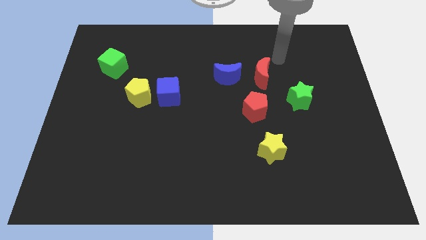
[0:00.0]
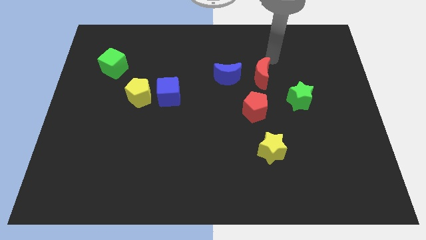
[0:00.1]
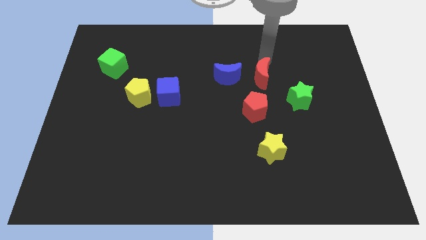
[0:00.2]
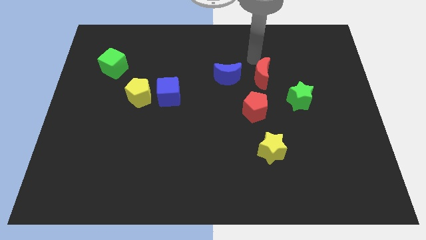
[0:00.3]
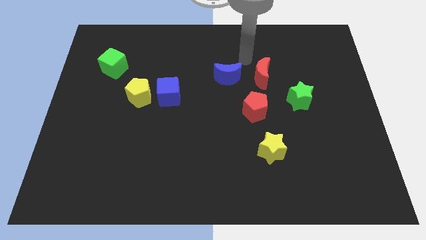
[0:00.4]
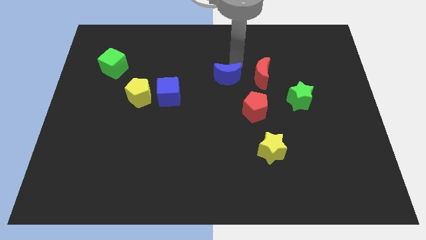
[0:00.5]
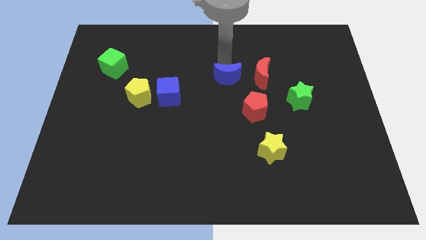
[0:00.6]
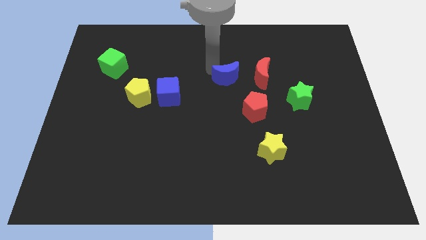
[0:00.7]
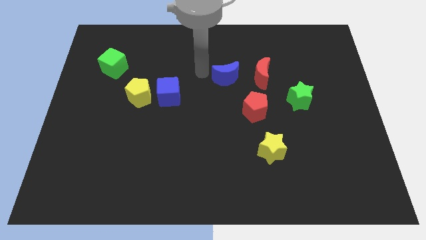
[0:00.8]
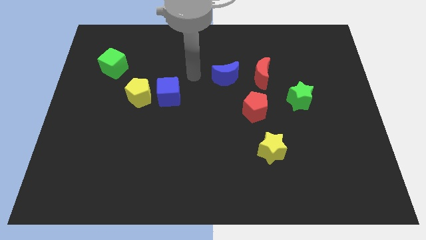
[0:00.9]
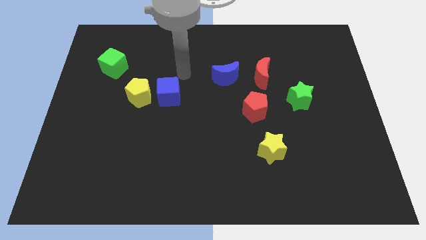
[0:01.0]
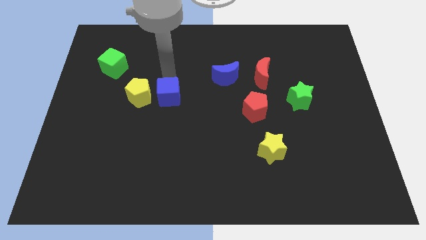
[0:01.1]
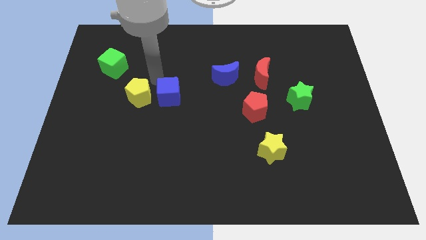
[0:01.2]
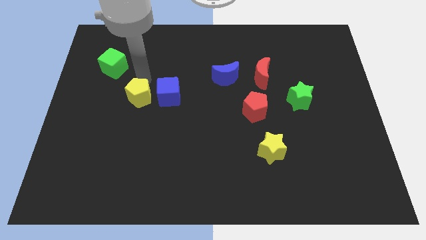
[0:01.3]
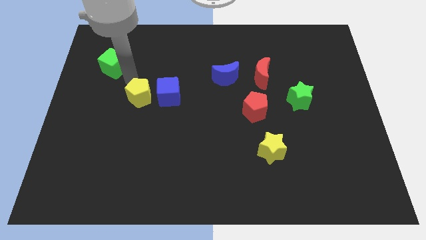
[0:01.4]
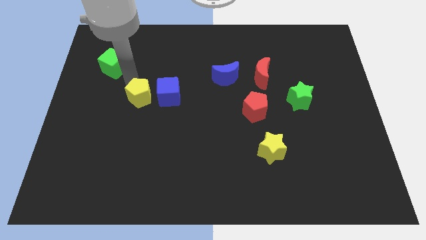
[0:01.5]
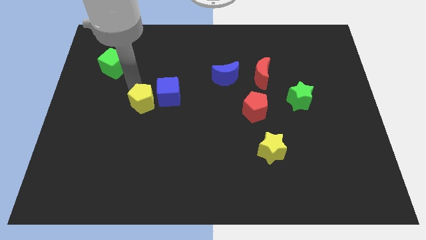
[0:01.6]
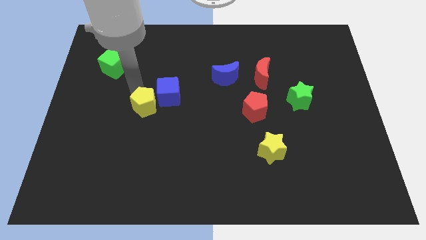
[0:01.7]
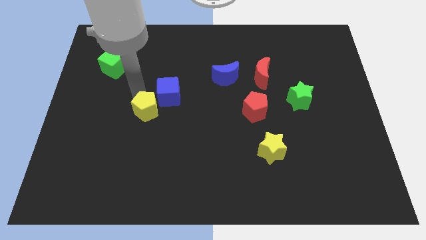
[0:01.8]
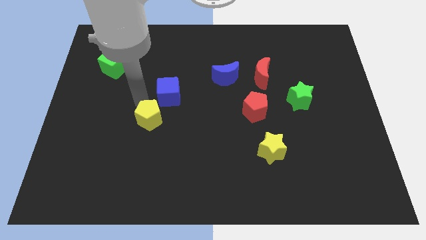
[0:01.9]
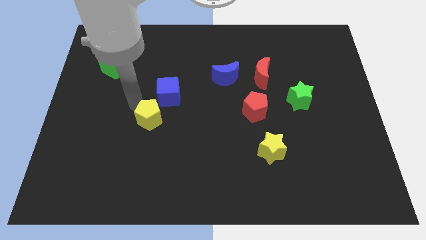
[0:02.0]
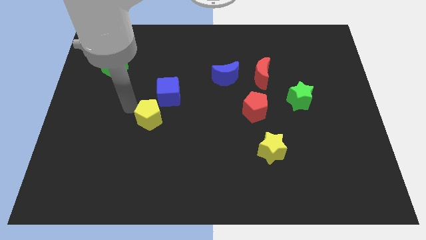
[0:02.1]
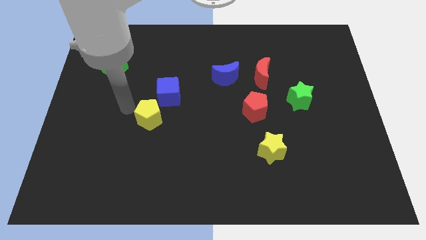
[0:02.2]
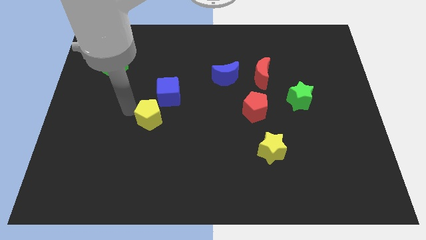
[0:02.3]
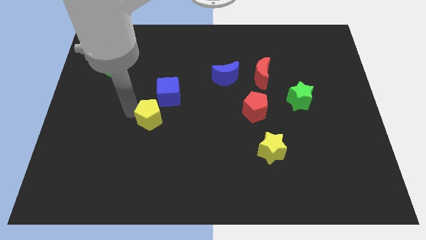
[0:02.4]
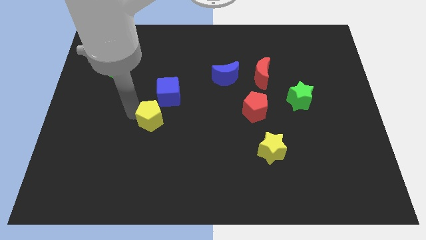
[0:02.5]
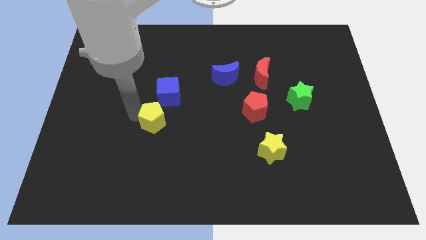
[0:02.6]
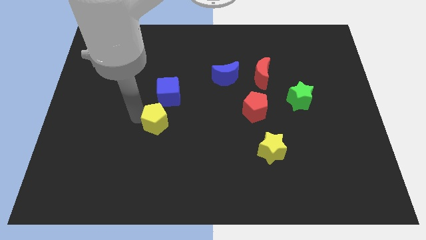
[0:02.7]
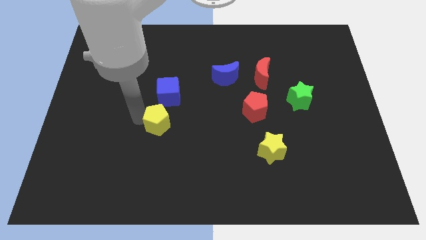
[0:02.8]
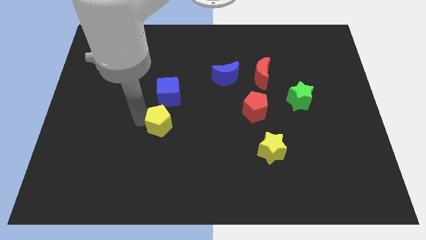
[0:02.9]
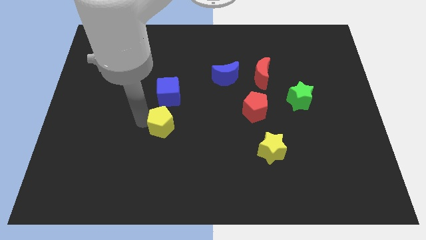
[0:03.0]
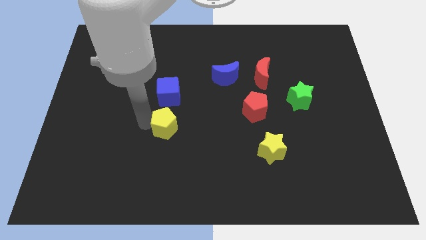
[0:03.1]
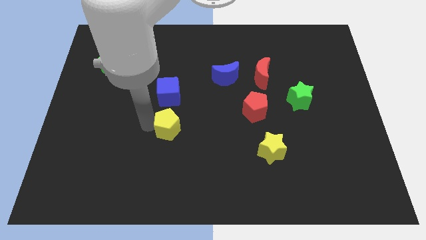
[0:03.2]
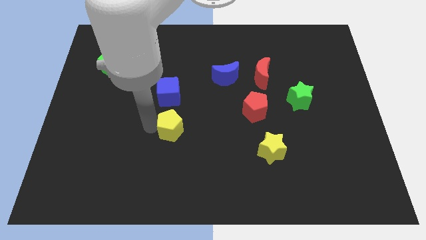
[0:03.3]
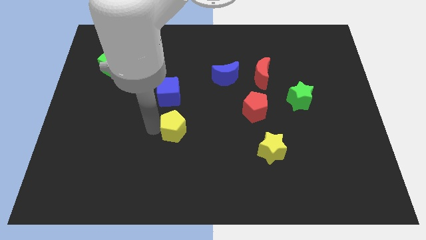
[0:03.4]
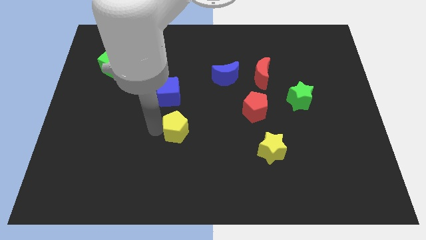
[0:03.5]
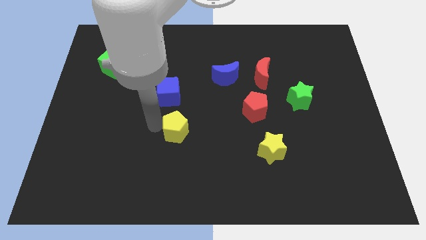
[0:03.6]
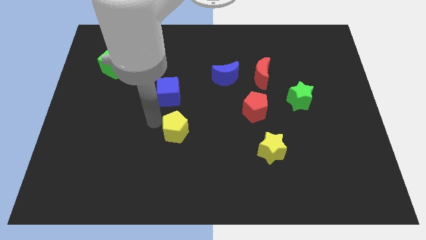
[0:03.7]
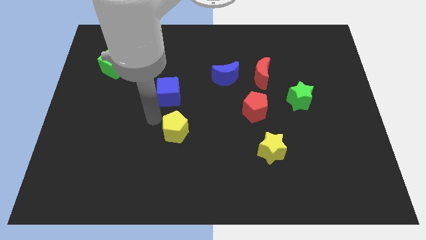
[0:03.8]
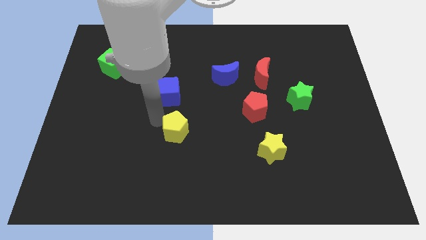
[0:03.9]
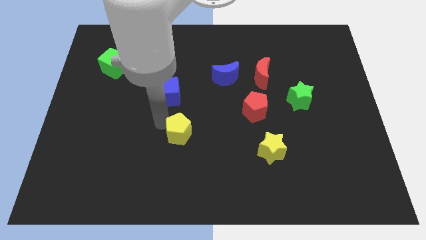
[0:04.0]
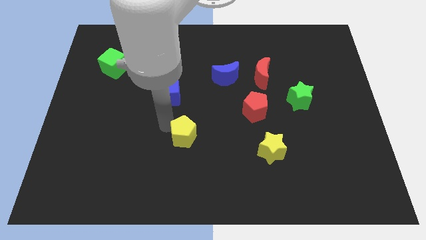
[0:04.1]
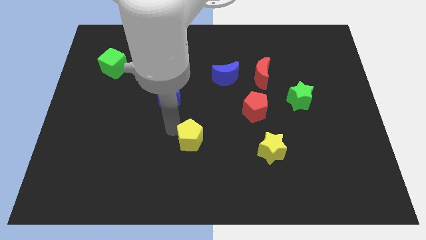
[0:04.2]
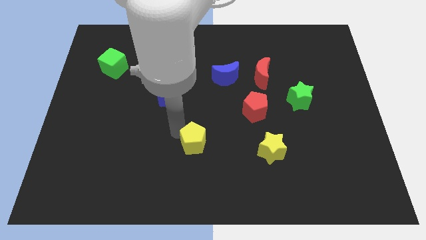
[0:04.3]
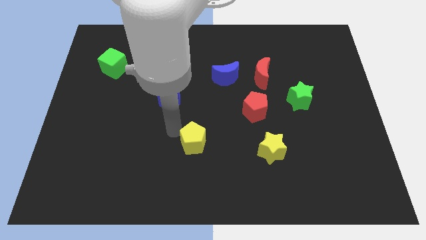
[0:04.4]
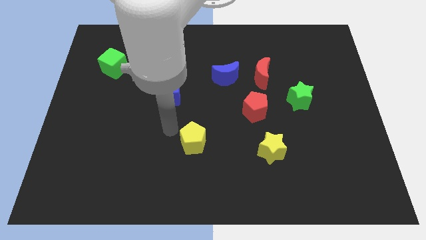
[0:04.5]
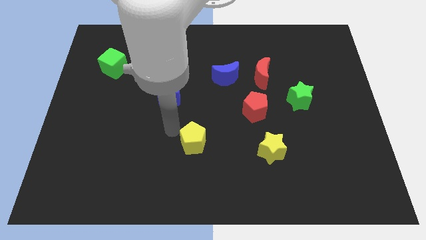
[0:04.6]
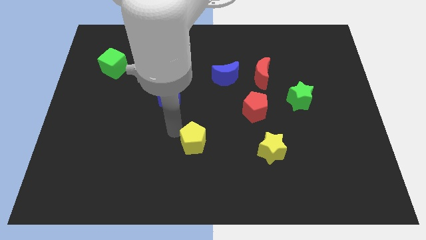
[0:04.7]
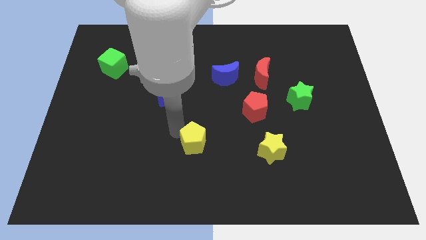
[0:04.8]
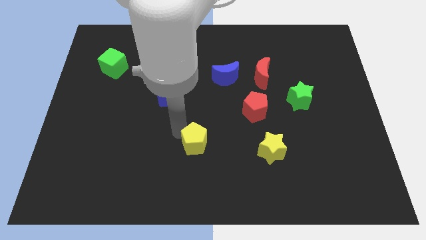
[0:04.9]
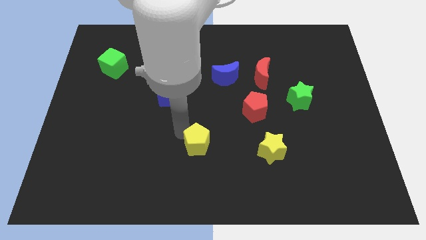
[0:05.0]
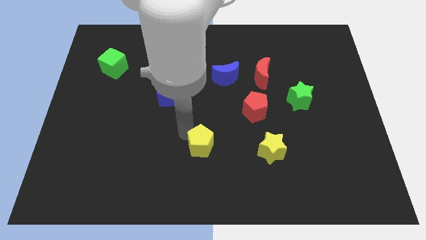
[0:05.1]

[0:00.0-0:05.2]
push the yellow pentagon downwards and to the right diagonally

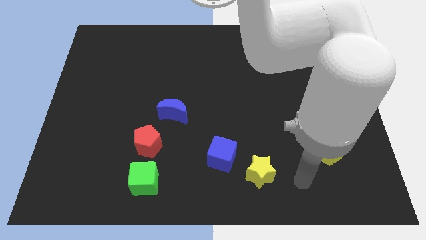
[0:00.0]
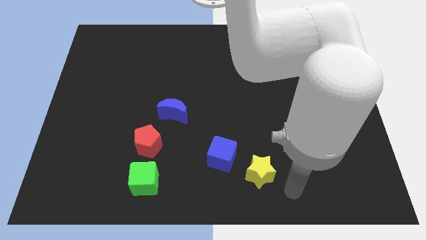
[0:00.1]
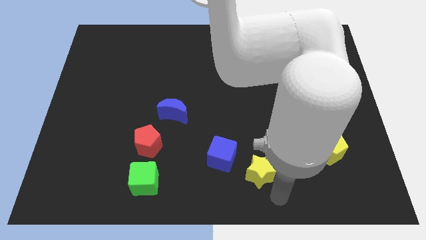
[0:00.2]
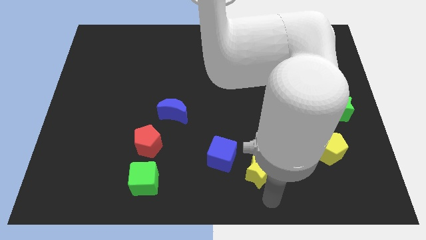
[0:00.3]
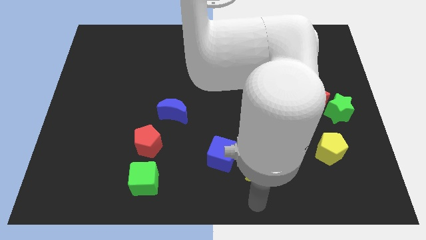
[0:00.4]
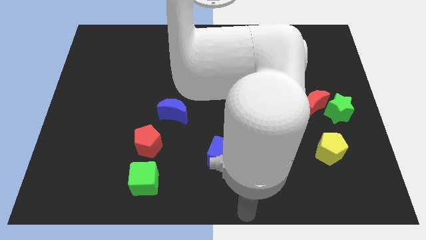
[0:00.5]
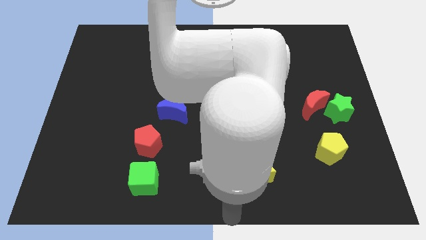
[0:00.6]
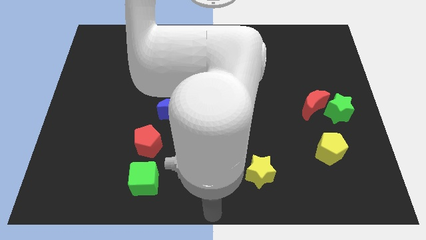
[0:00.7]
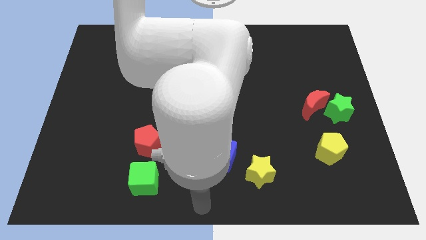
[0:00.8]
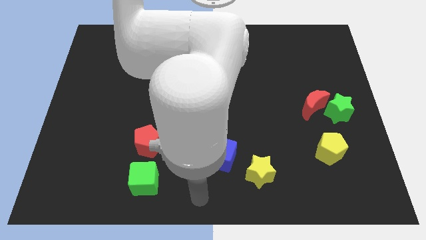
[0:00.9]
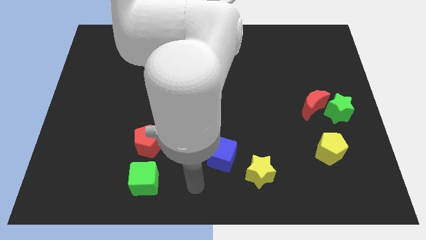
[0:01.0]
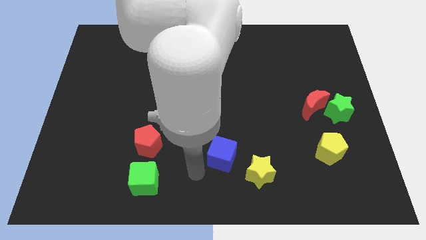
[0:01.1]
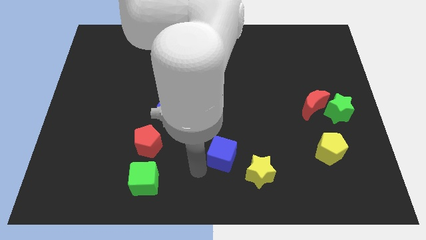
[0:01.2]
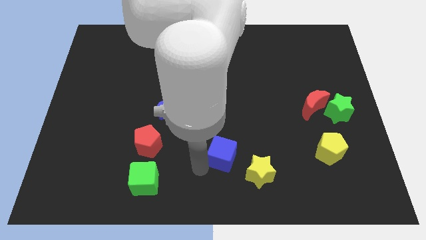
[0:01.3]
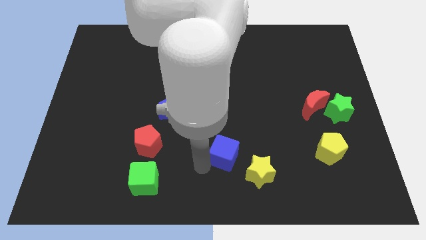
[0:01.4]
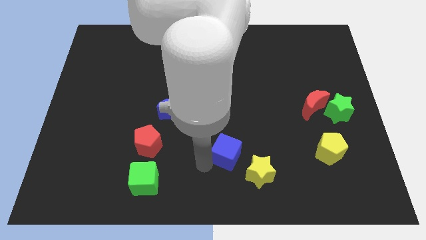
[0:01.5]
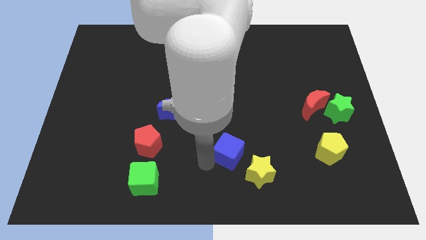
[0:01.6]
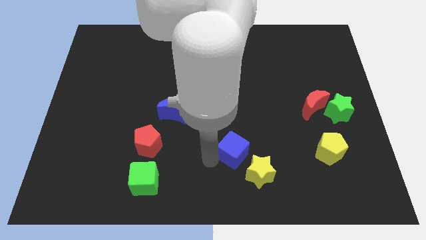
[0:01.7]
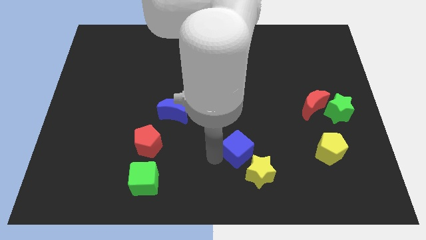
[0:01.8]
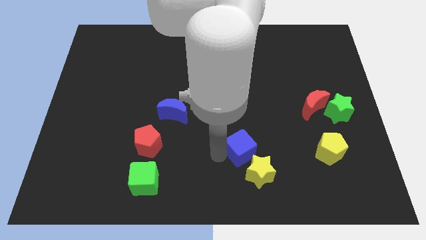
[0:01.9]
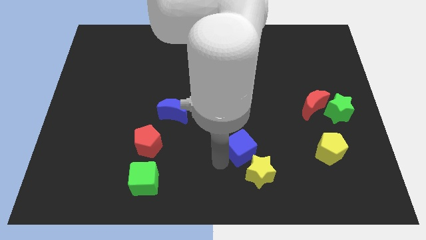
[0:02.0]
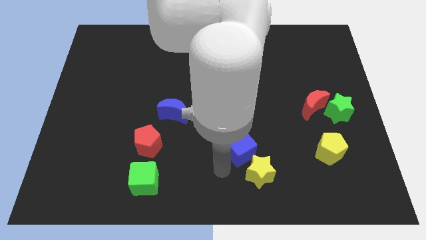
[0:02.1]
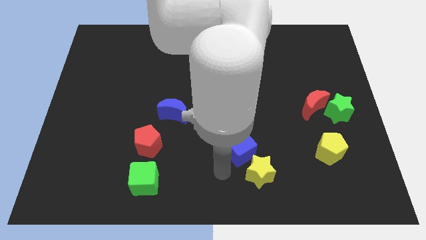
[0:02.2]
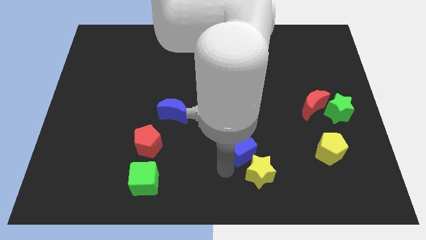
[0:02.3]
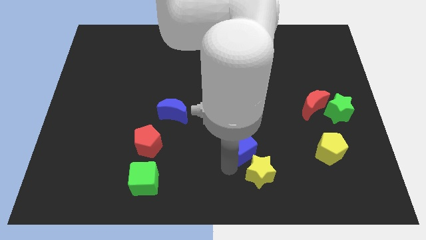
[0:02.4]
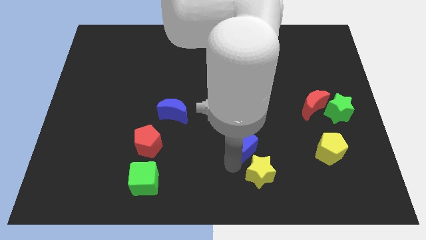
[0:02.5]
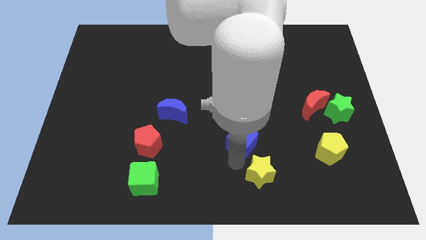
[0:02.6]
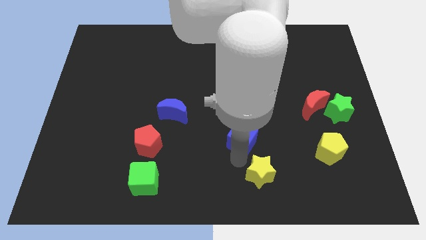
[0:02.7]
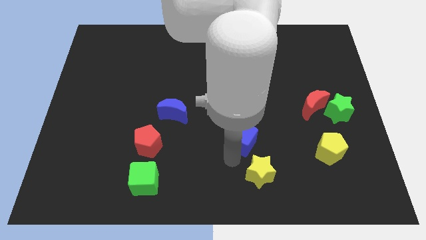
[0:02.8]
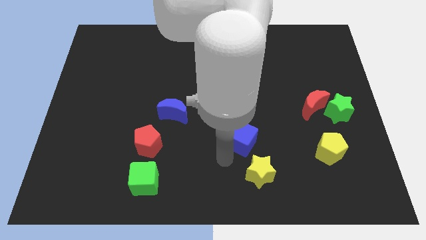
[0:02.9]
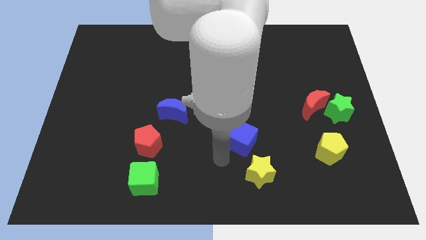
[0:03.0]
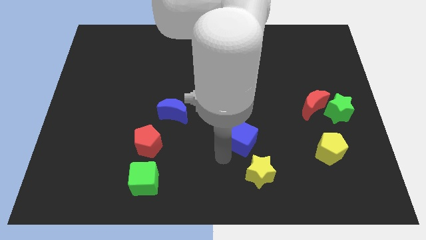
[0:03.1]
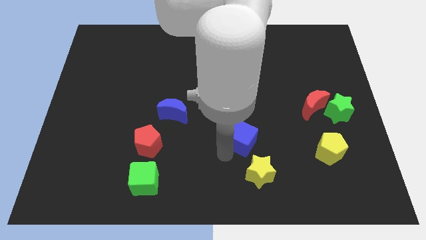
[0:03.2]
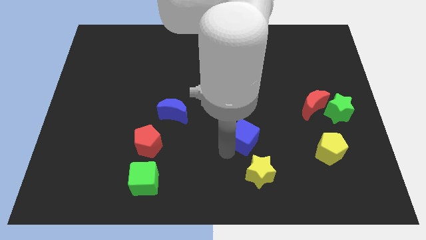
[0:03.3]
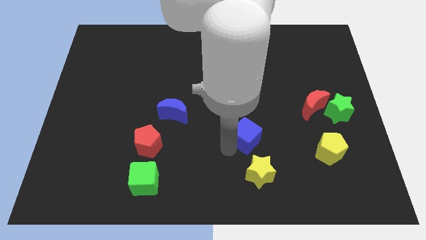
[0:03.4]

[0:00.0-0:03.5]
move the blue cube a bit diagonally upwards and to the right
